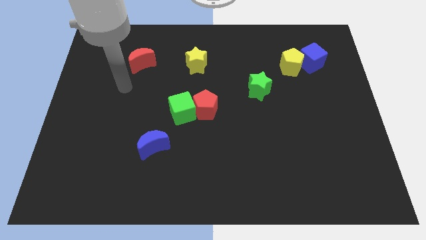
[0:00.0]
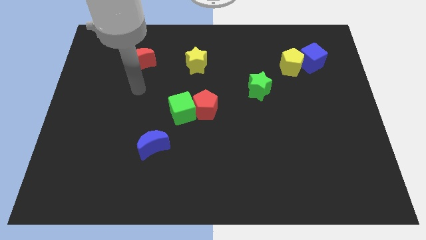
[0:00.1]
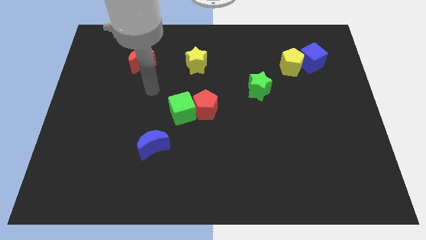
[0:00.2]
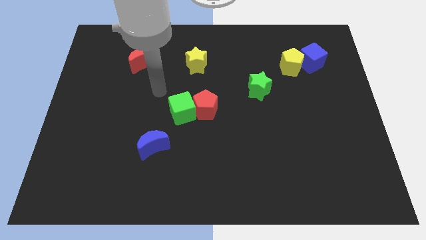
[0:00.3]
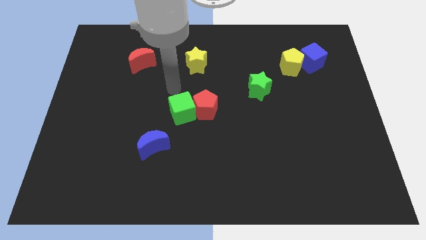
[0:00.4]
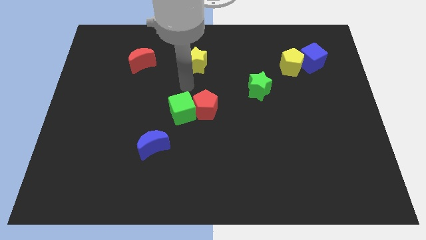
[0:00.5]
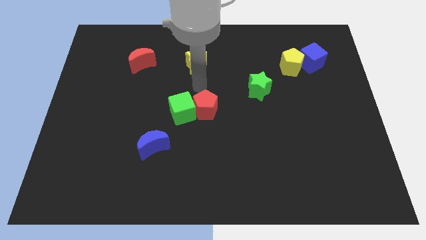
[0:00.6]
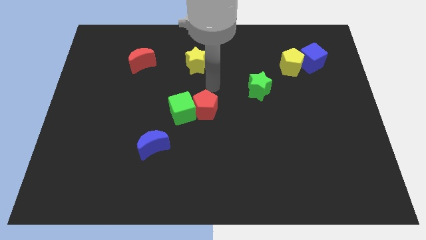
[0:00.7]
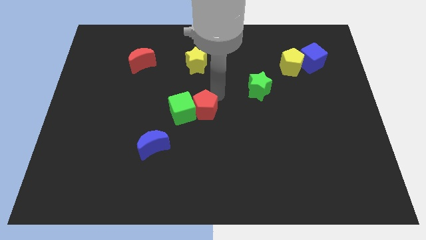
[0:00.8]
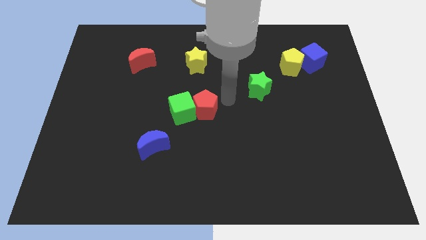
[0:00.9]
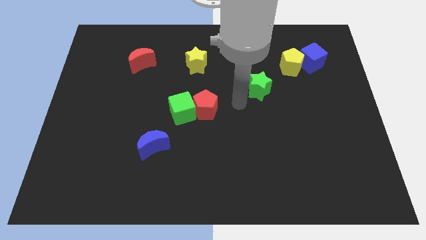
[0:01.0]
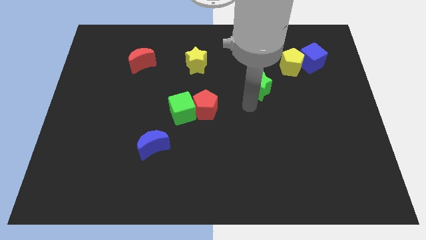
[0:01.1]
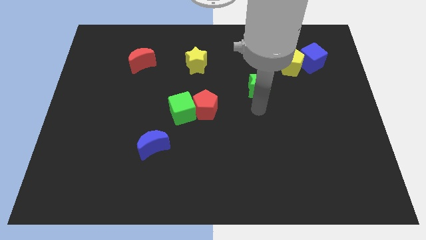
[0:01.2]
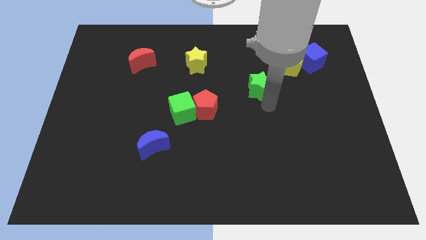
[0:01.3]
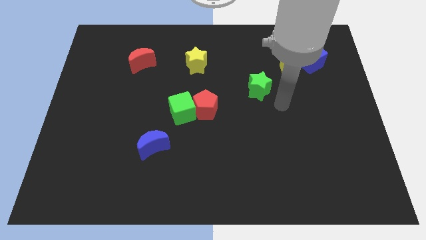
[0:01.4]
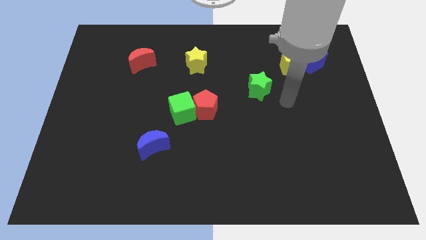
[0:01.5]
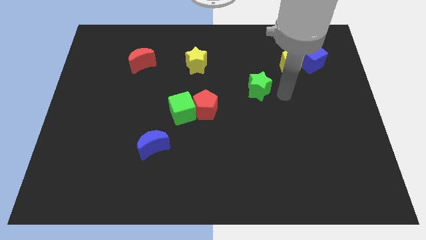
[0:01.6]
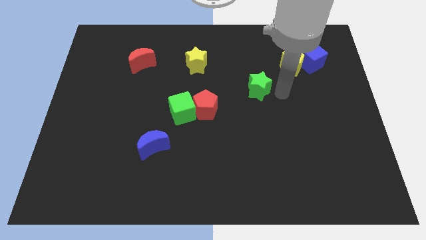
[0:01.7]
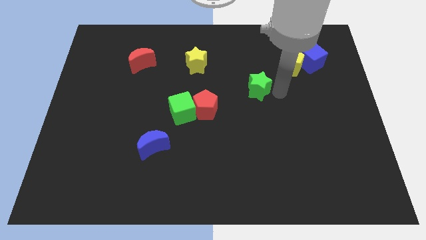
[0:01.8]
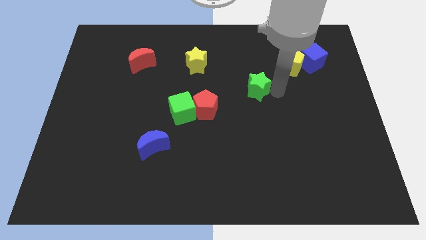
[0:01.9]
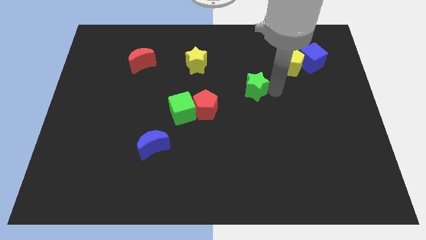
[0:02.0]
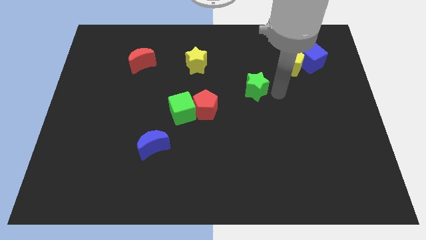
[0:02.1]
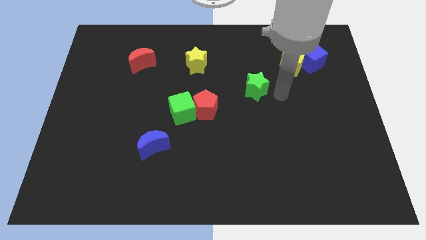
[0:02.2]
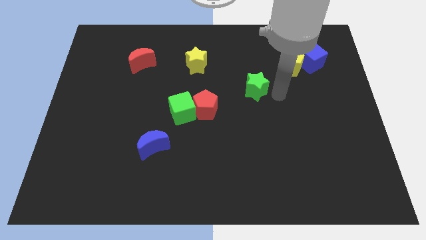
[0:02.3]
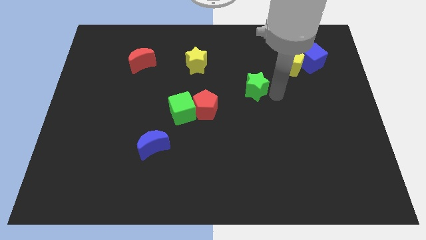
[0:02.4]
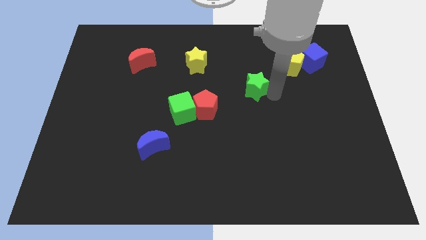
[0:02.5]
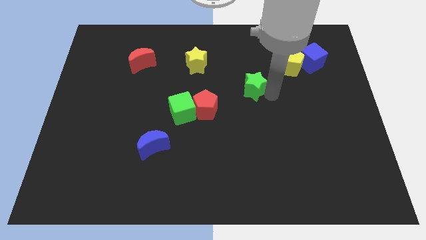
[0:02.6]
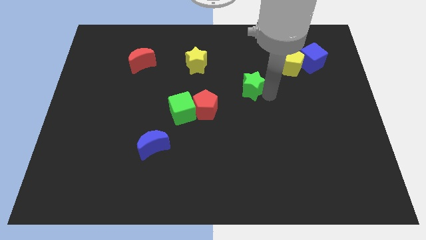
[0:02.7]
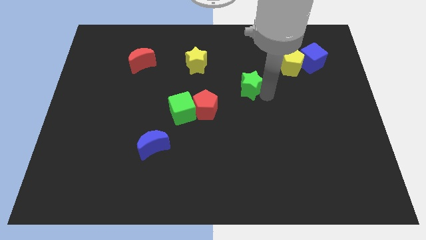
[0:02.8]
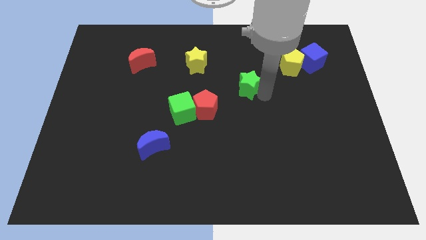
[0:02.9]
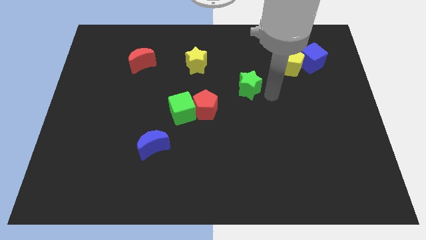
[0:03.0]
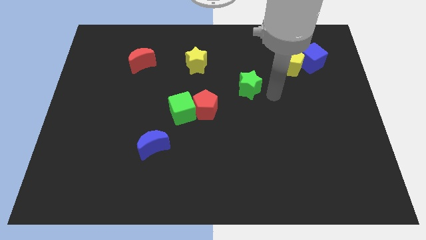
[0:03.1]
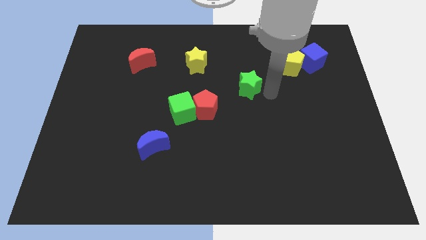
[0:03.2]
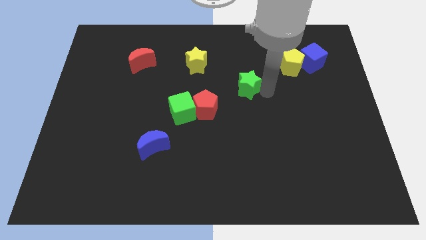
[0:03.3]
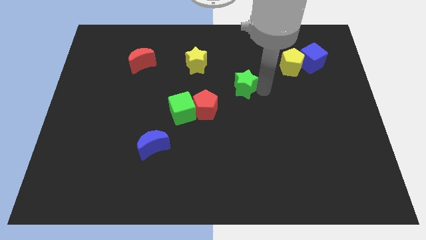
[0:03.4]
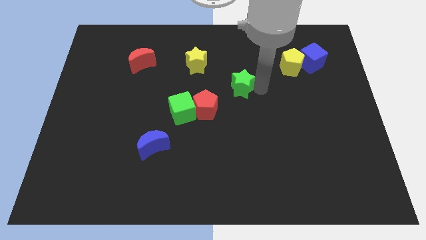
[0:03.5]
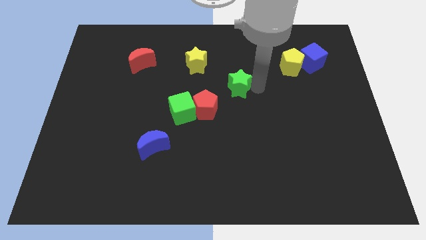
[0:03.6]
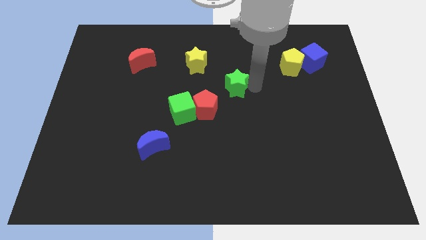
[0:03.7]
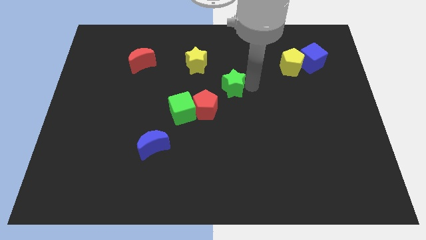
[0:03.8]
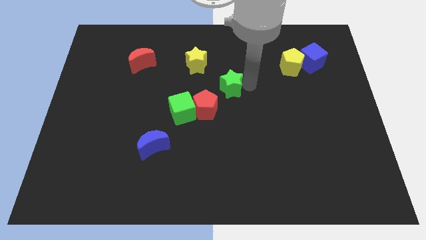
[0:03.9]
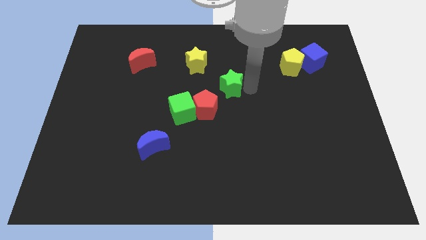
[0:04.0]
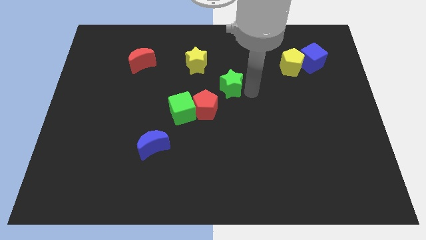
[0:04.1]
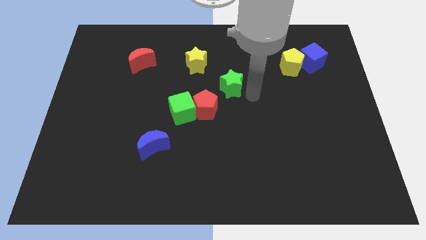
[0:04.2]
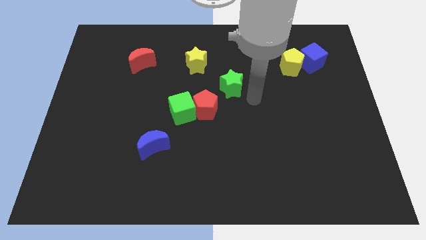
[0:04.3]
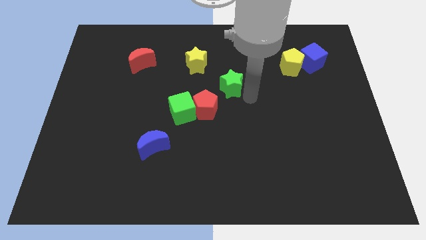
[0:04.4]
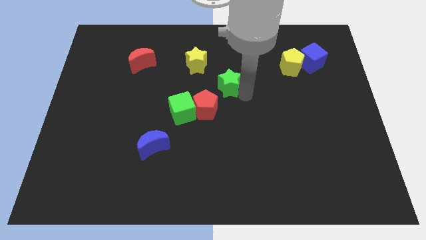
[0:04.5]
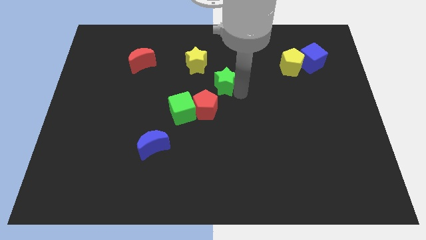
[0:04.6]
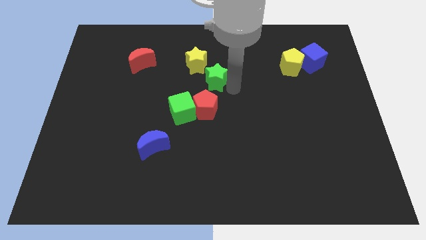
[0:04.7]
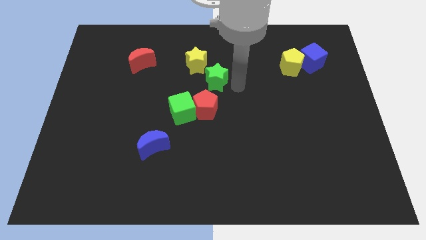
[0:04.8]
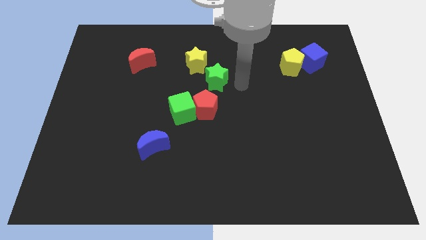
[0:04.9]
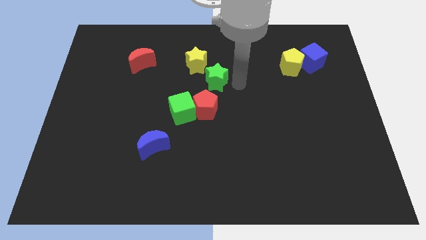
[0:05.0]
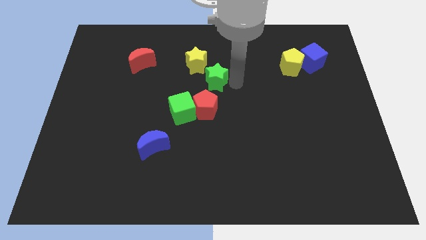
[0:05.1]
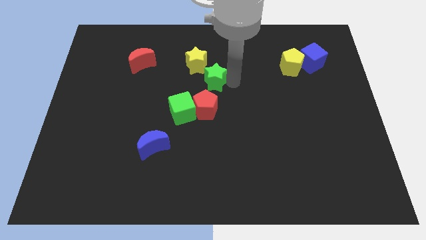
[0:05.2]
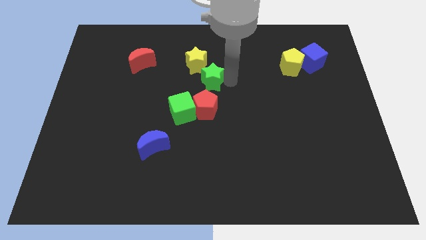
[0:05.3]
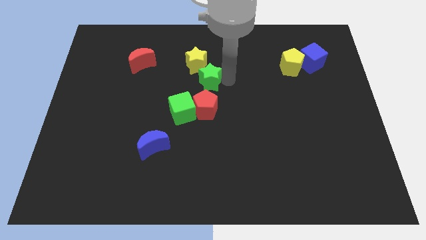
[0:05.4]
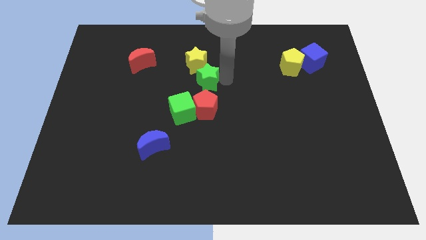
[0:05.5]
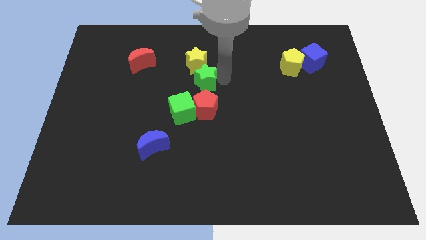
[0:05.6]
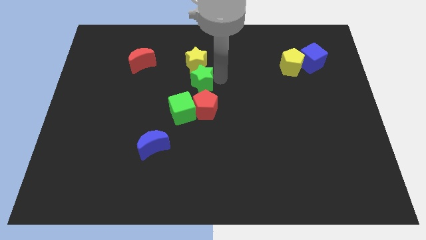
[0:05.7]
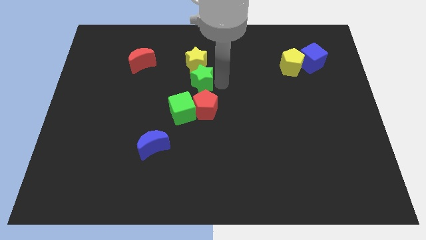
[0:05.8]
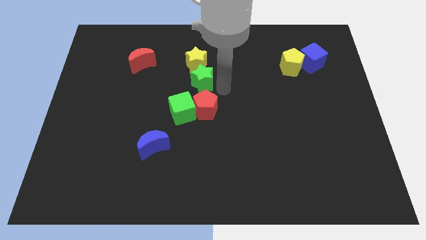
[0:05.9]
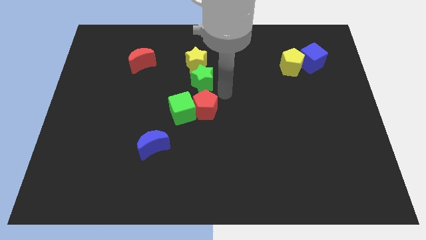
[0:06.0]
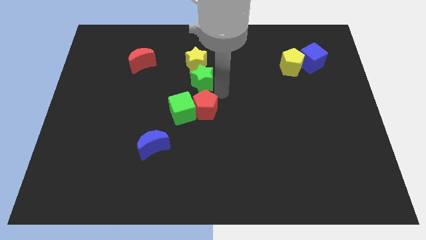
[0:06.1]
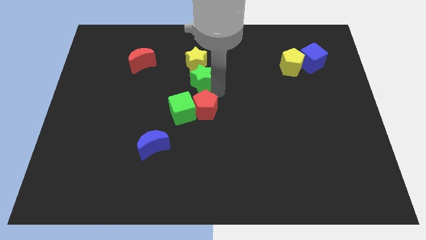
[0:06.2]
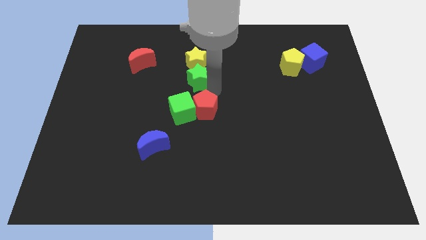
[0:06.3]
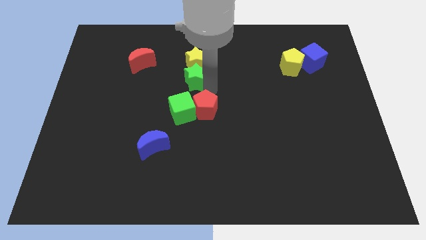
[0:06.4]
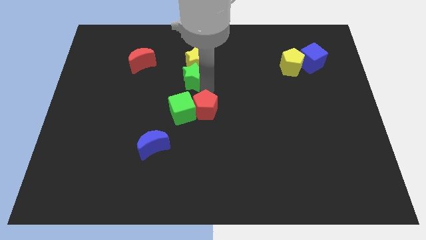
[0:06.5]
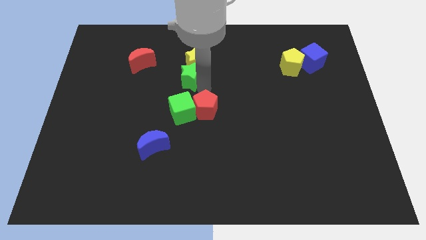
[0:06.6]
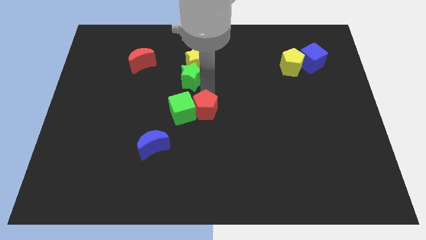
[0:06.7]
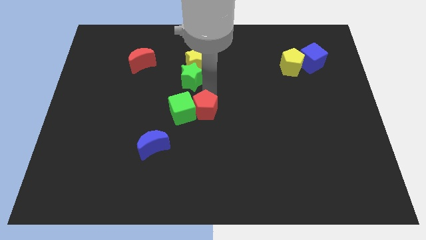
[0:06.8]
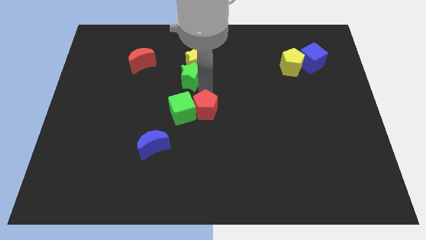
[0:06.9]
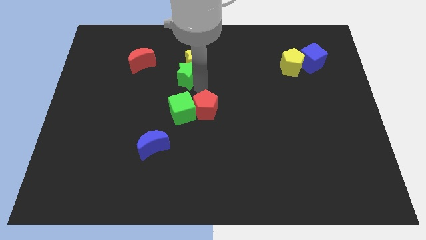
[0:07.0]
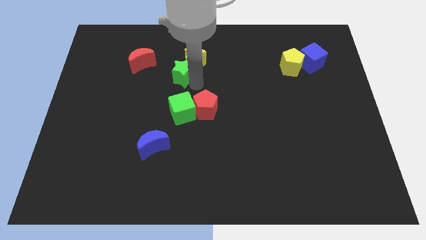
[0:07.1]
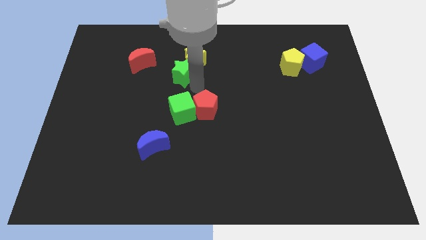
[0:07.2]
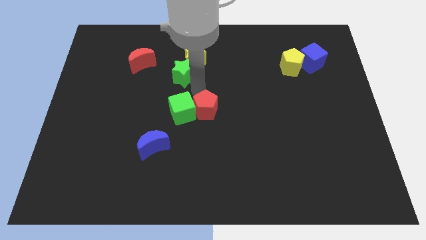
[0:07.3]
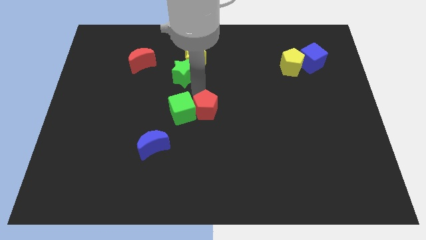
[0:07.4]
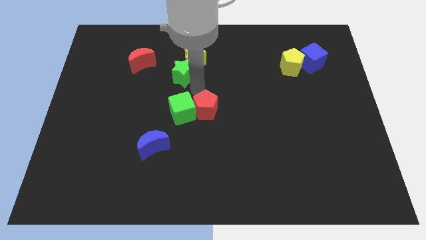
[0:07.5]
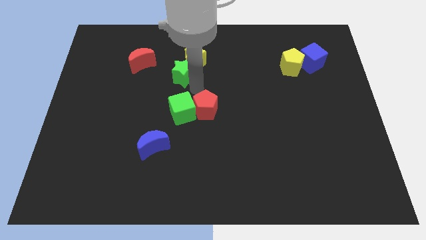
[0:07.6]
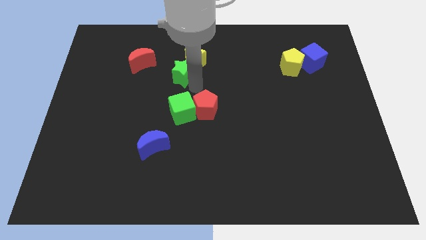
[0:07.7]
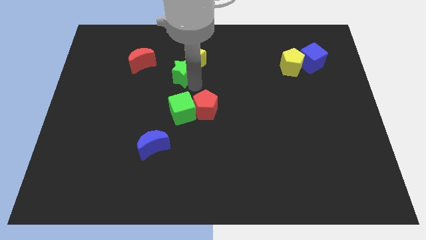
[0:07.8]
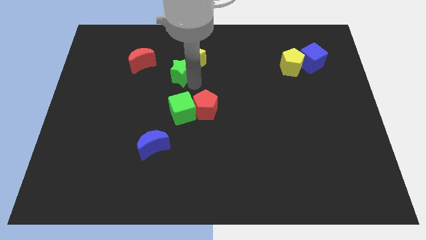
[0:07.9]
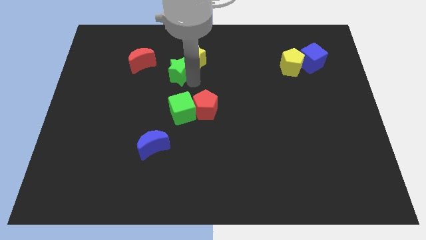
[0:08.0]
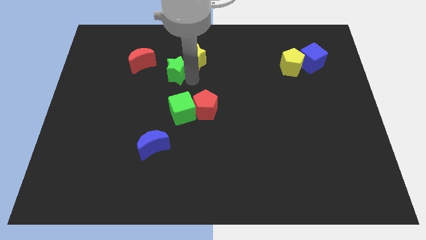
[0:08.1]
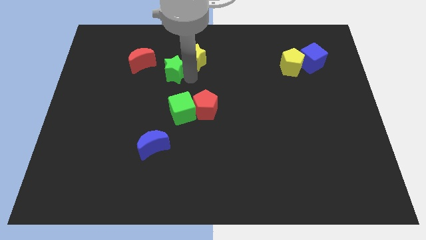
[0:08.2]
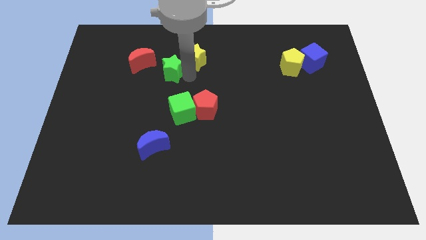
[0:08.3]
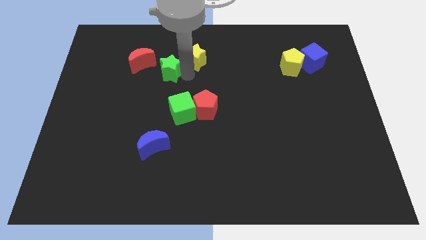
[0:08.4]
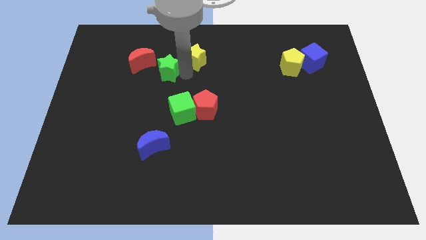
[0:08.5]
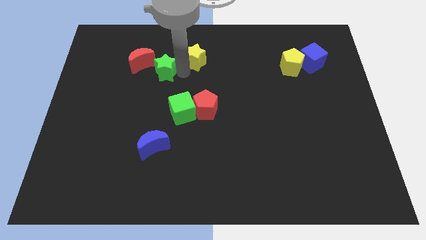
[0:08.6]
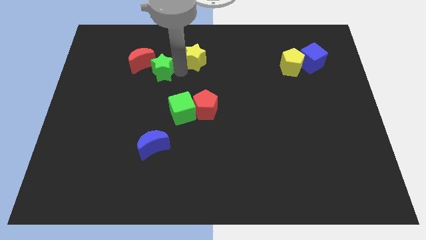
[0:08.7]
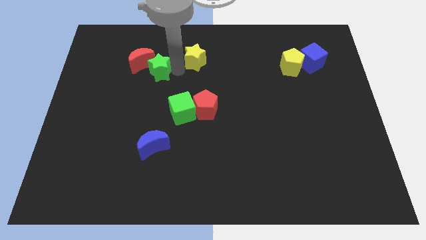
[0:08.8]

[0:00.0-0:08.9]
move the green star next to the red moon
